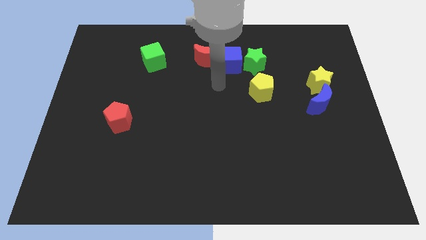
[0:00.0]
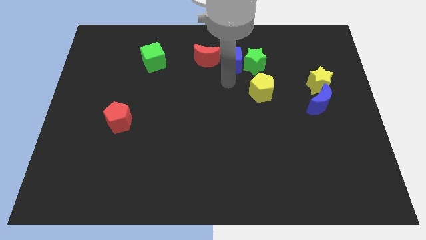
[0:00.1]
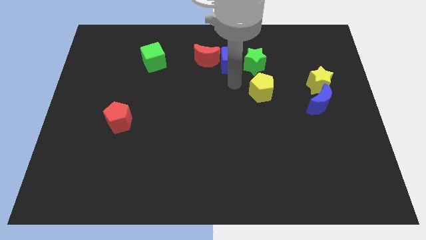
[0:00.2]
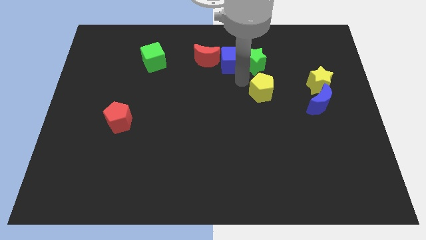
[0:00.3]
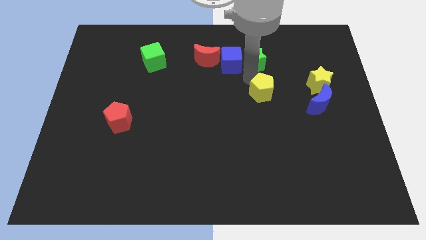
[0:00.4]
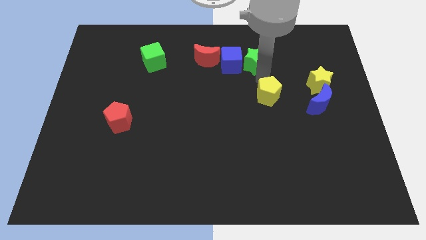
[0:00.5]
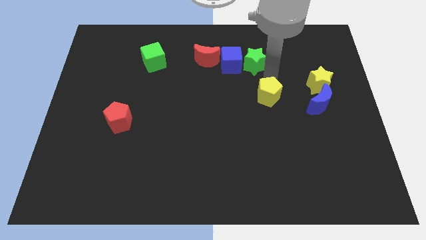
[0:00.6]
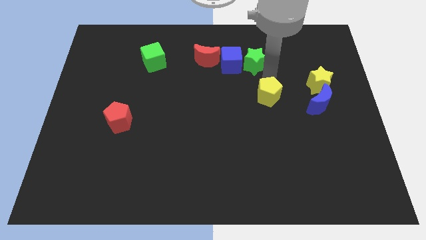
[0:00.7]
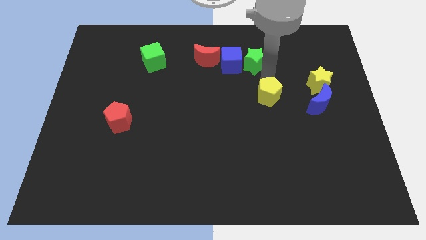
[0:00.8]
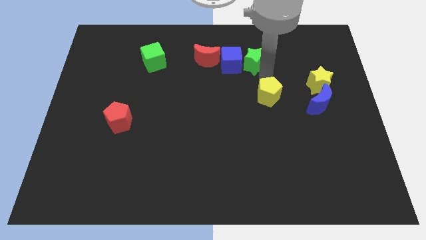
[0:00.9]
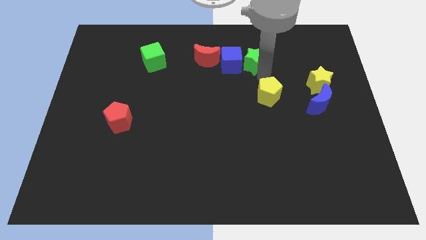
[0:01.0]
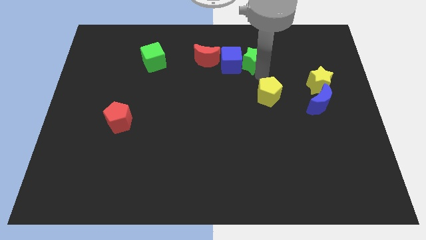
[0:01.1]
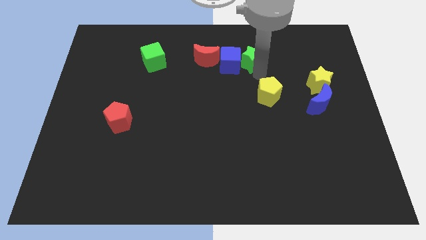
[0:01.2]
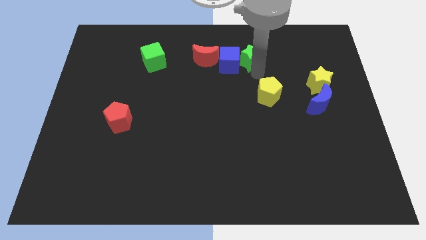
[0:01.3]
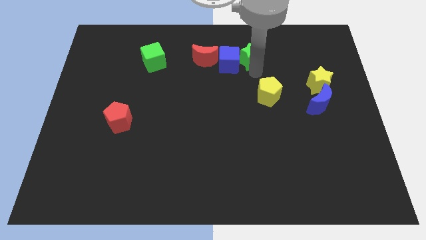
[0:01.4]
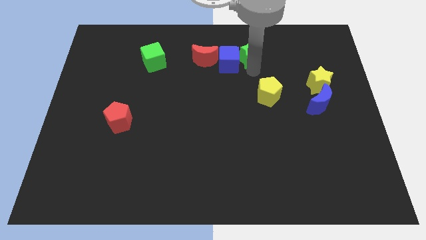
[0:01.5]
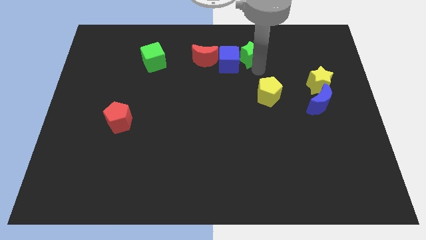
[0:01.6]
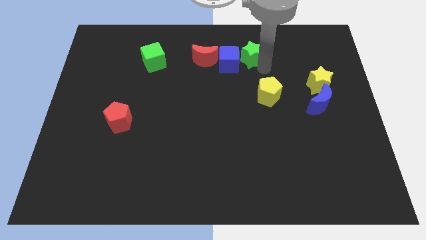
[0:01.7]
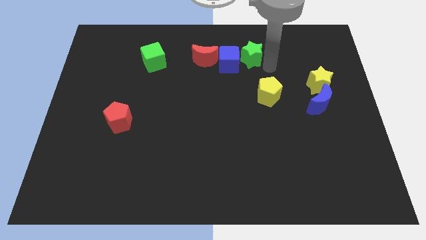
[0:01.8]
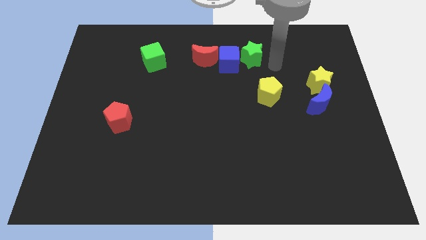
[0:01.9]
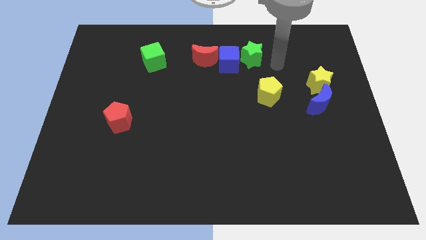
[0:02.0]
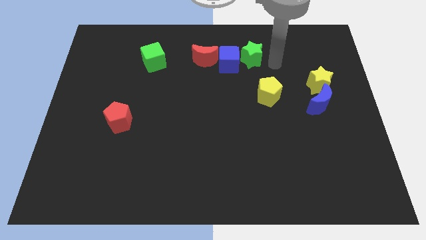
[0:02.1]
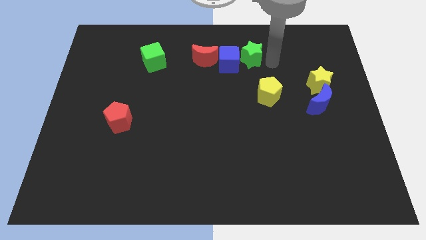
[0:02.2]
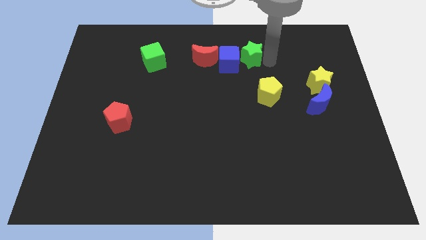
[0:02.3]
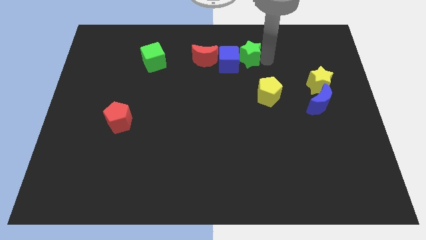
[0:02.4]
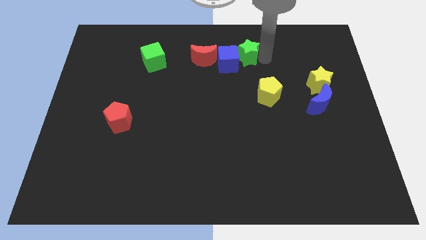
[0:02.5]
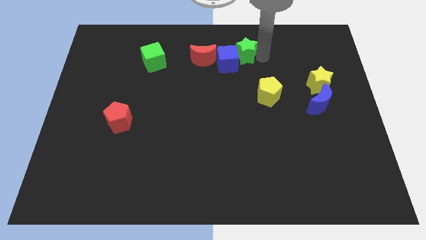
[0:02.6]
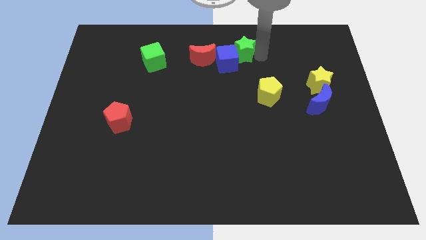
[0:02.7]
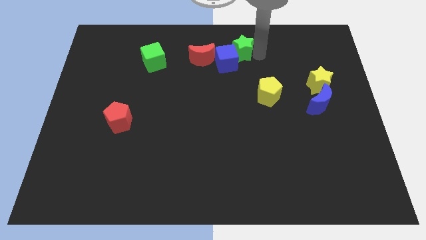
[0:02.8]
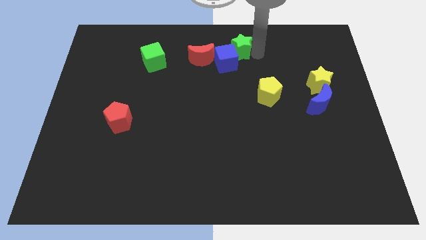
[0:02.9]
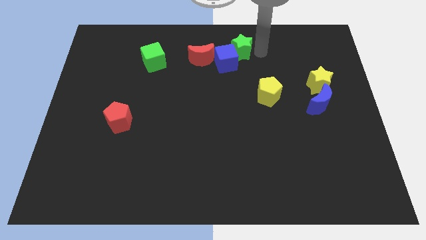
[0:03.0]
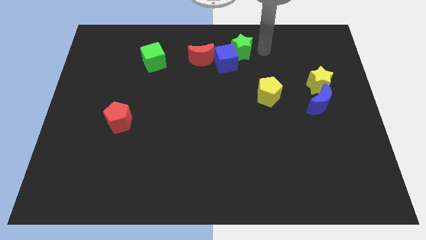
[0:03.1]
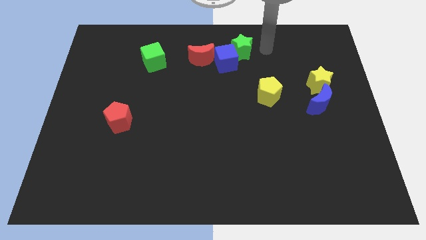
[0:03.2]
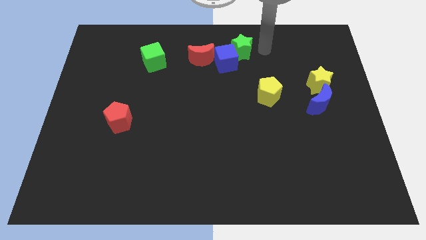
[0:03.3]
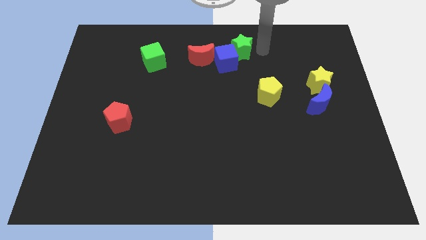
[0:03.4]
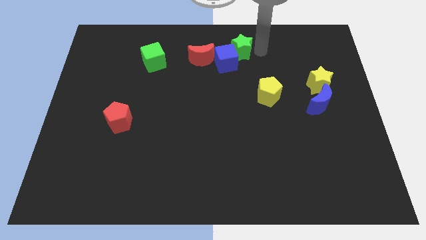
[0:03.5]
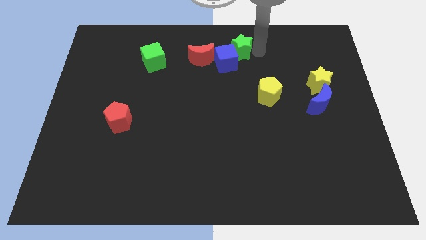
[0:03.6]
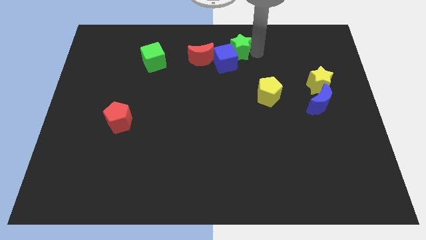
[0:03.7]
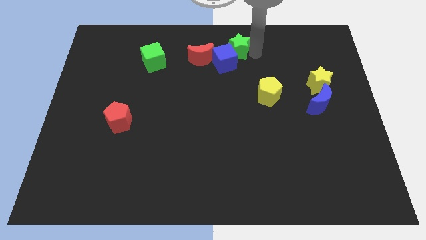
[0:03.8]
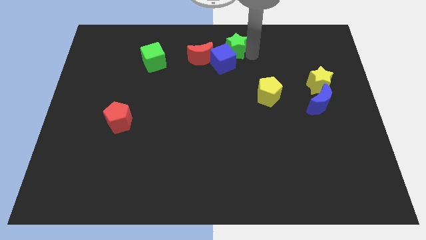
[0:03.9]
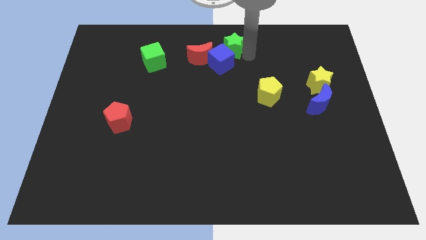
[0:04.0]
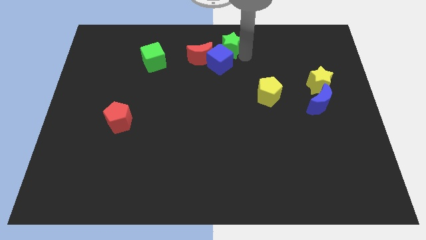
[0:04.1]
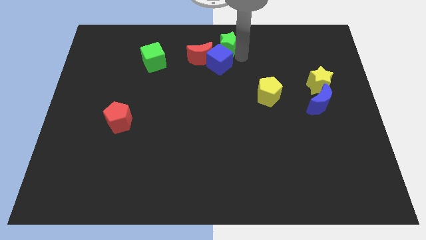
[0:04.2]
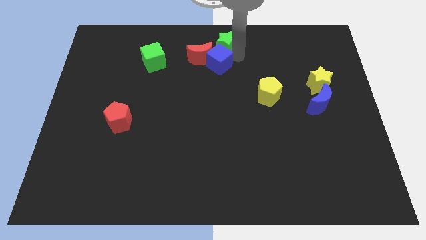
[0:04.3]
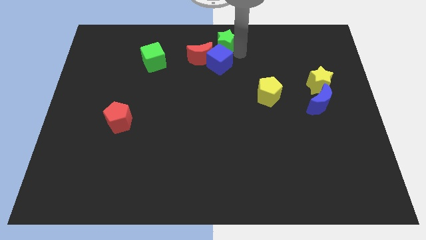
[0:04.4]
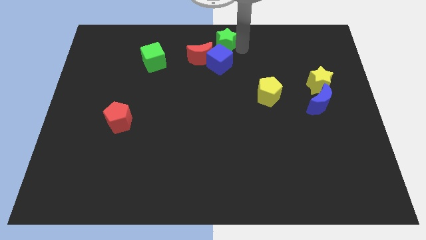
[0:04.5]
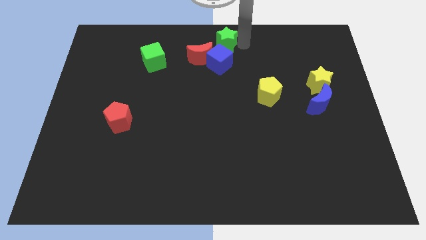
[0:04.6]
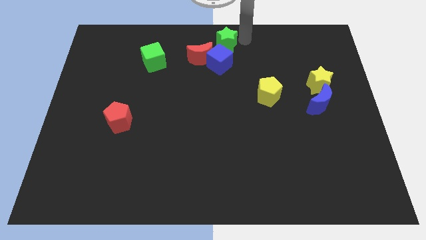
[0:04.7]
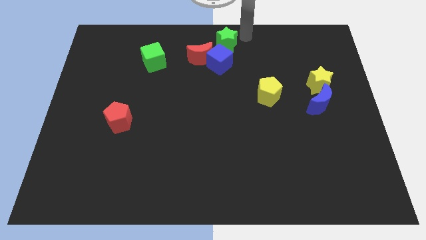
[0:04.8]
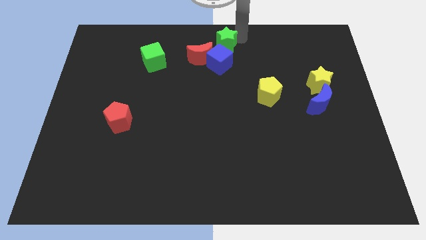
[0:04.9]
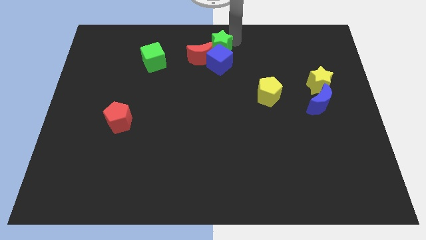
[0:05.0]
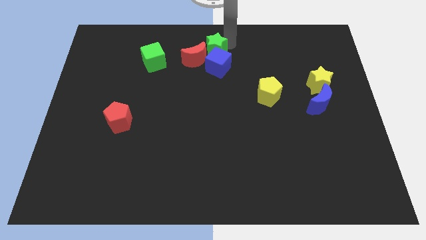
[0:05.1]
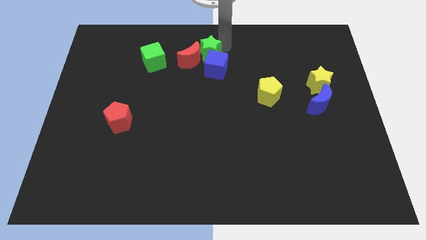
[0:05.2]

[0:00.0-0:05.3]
put the green star towards the red moon

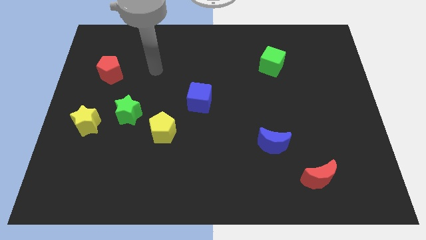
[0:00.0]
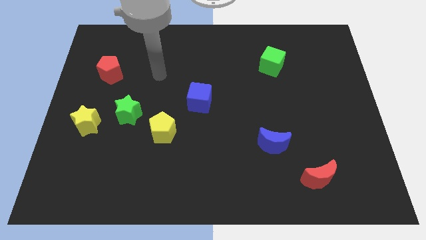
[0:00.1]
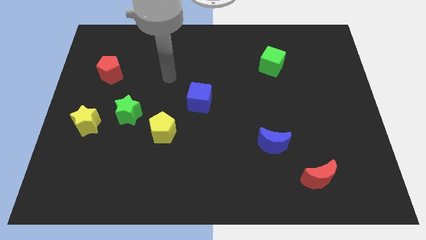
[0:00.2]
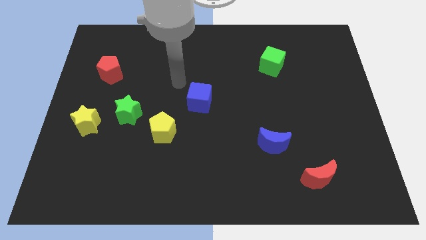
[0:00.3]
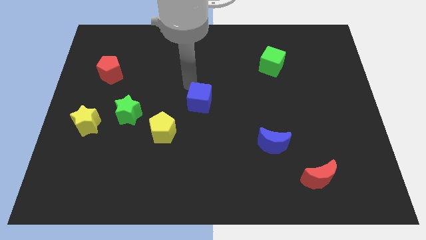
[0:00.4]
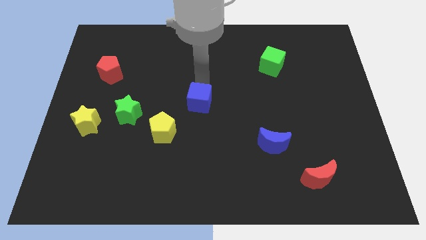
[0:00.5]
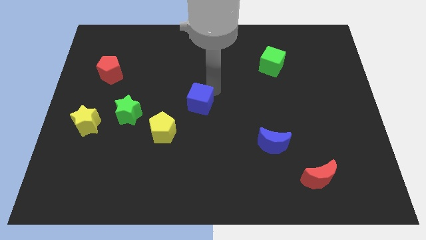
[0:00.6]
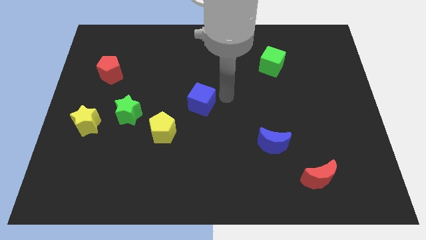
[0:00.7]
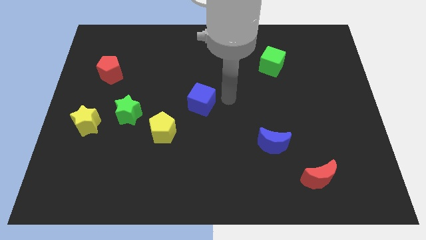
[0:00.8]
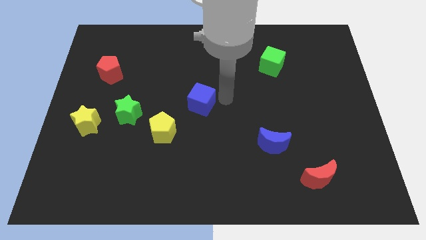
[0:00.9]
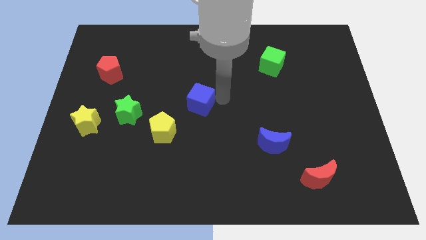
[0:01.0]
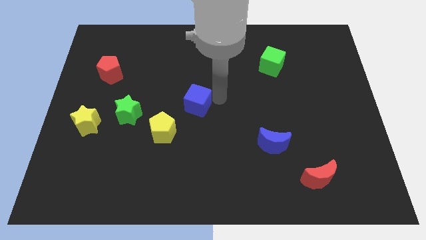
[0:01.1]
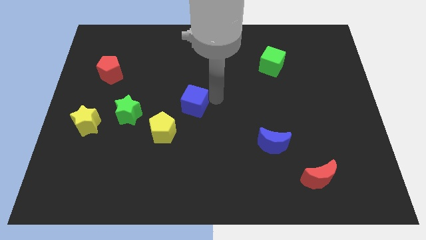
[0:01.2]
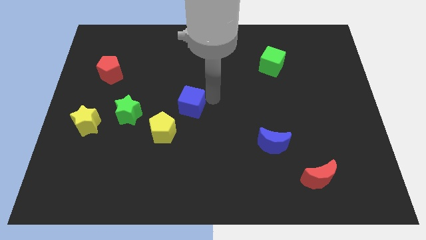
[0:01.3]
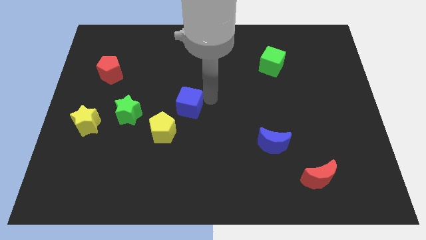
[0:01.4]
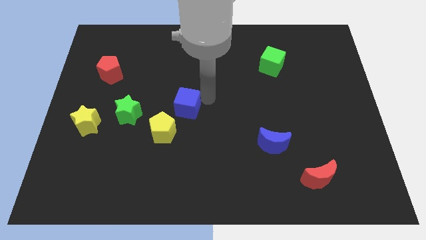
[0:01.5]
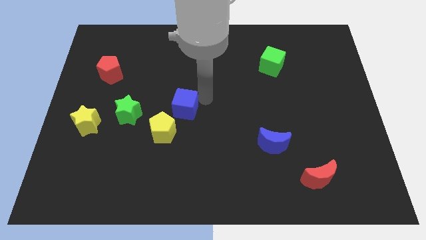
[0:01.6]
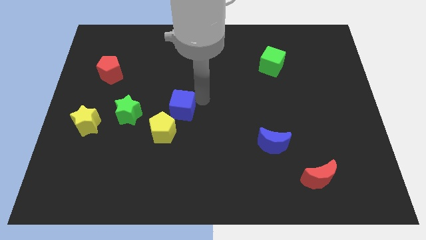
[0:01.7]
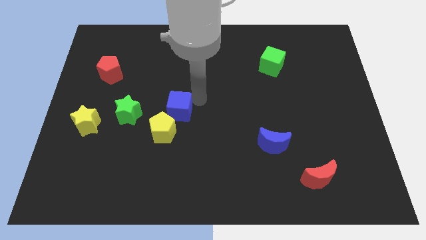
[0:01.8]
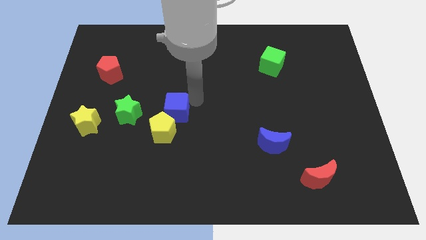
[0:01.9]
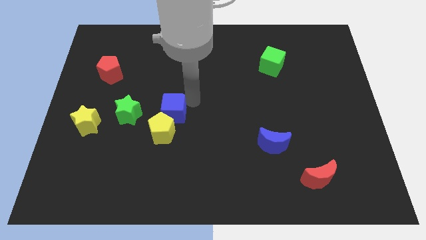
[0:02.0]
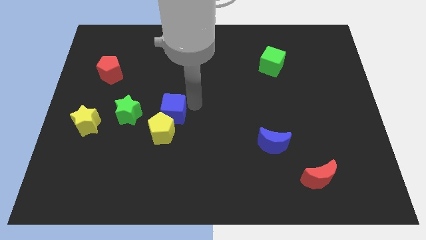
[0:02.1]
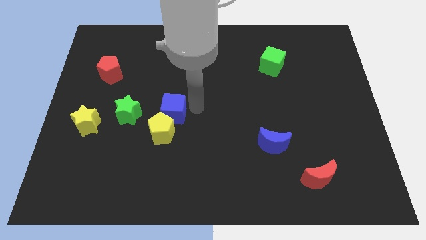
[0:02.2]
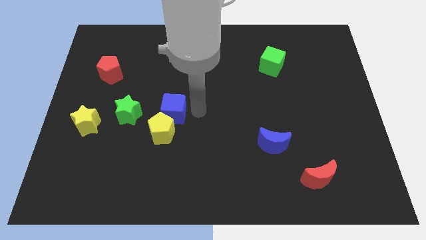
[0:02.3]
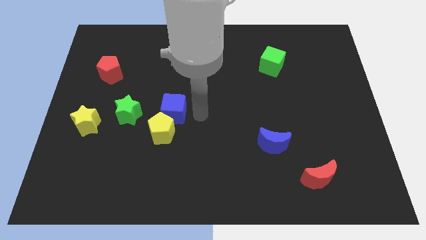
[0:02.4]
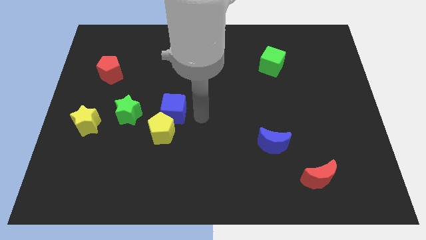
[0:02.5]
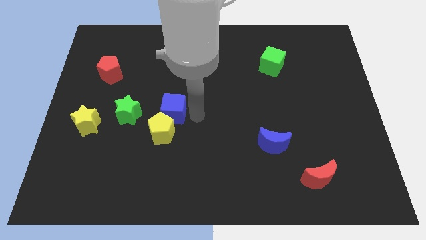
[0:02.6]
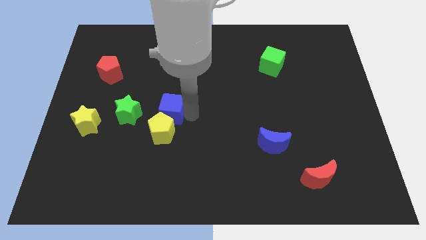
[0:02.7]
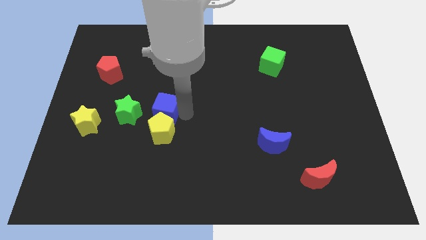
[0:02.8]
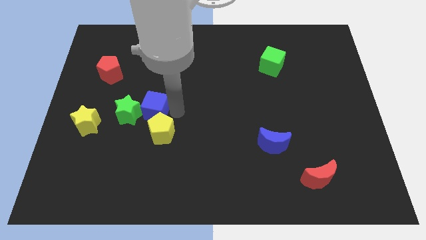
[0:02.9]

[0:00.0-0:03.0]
put the blue cube close to the green star
